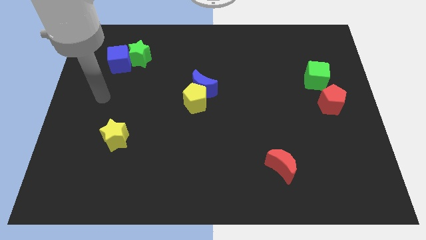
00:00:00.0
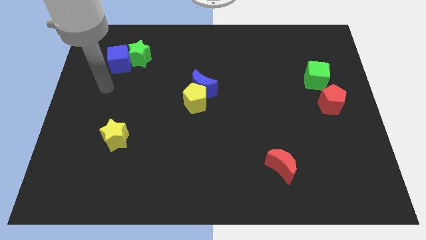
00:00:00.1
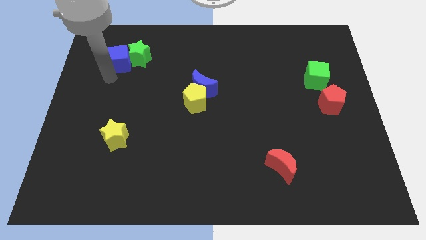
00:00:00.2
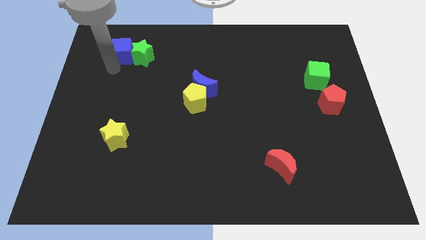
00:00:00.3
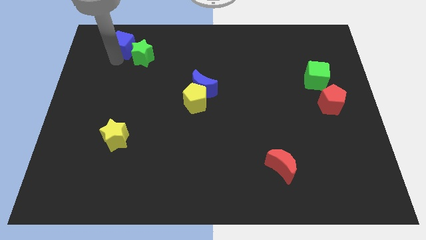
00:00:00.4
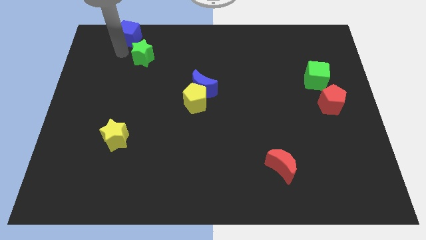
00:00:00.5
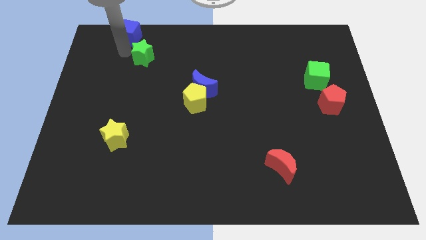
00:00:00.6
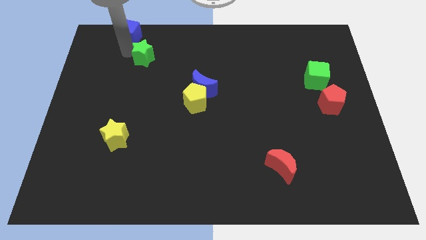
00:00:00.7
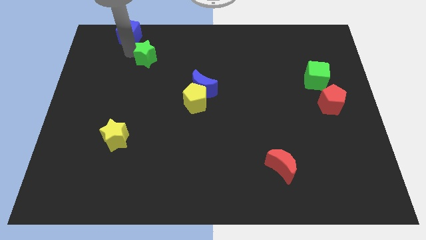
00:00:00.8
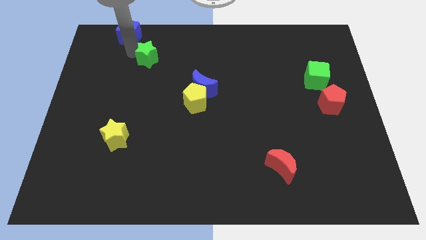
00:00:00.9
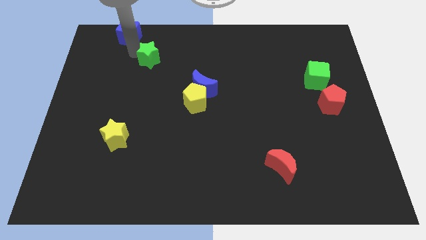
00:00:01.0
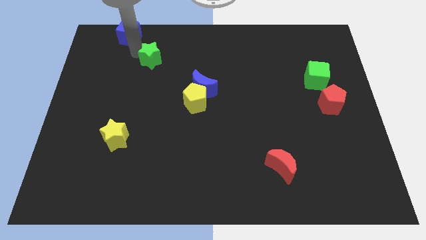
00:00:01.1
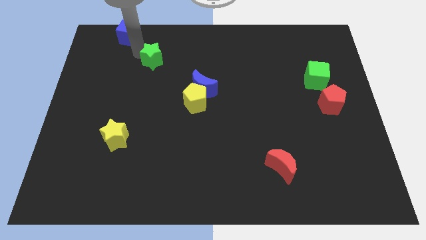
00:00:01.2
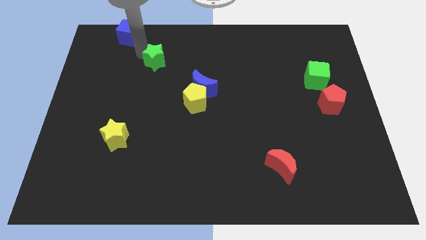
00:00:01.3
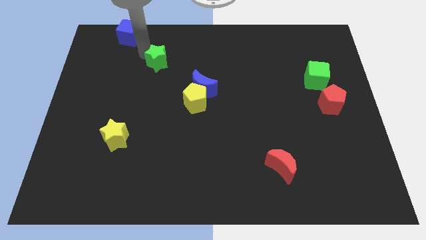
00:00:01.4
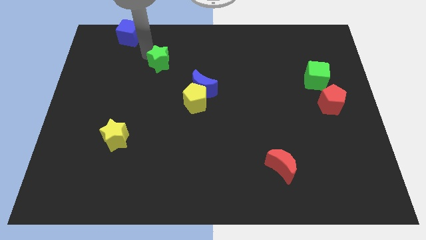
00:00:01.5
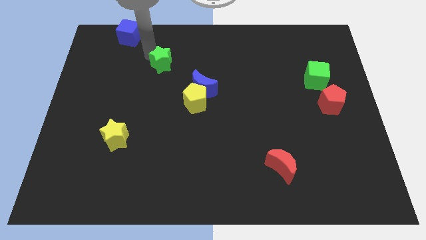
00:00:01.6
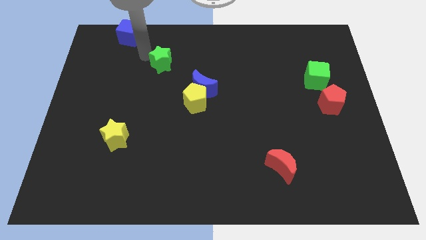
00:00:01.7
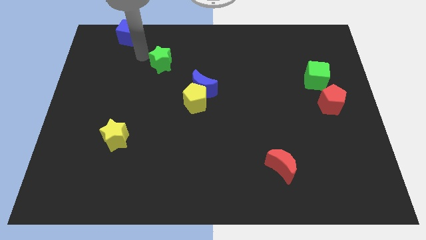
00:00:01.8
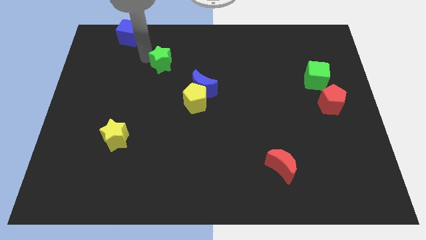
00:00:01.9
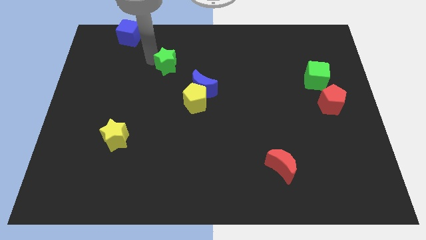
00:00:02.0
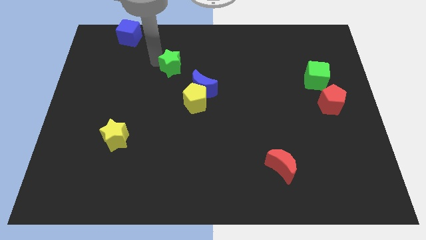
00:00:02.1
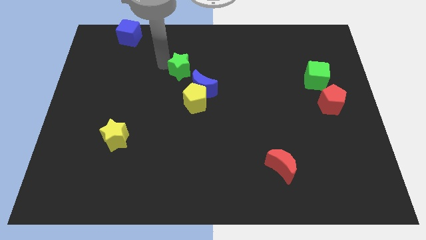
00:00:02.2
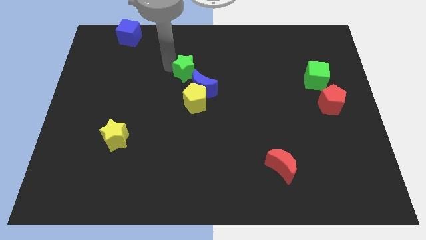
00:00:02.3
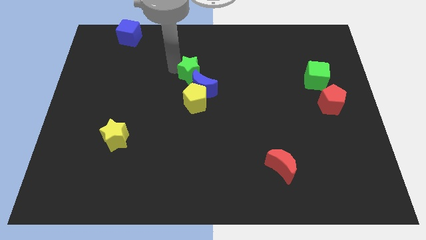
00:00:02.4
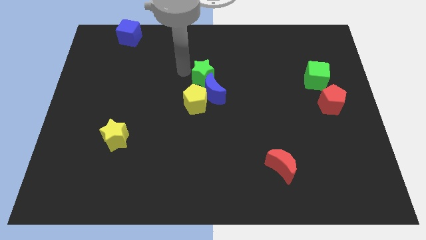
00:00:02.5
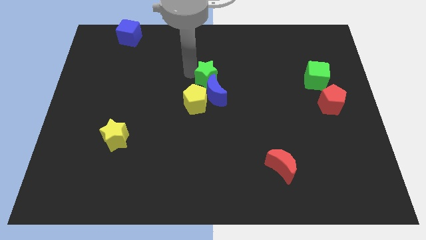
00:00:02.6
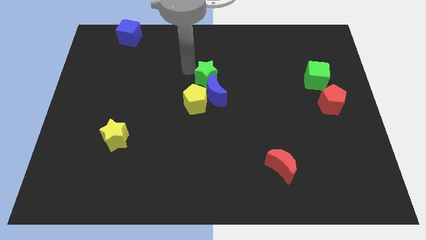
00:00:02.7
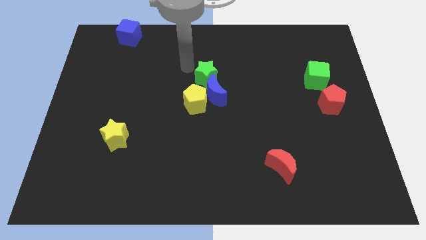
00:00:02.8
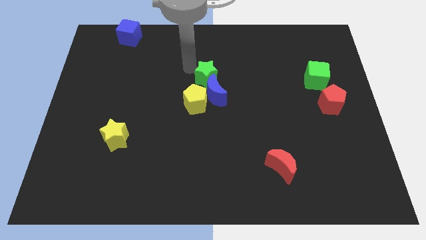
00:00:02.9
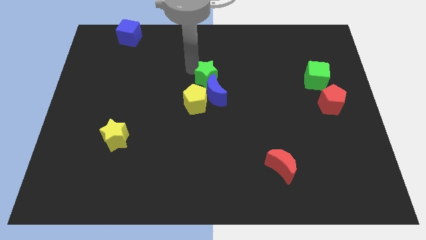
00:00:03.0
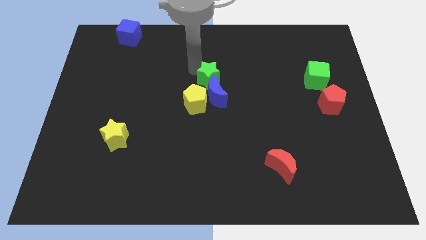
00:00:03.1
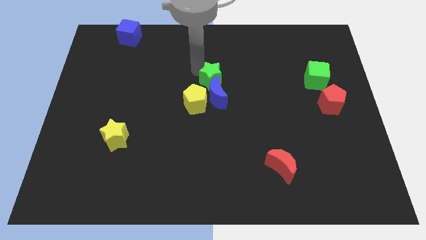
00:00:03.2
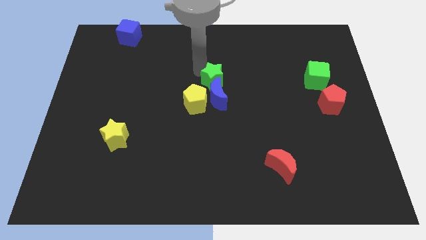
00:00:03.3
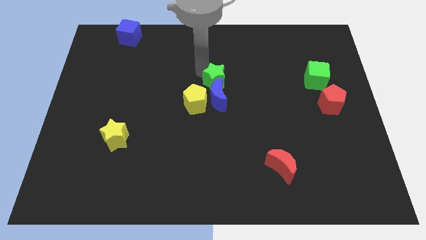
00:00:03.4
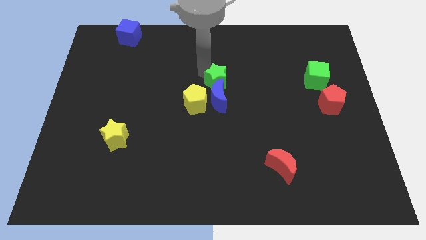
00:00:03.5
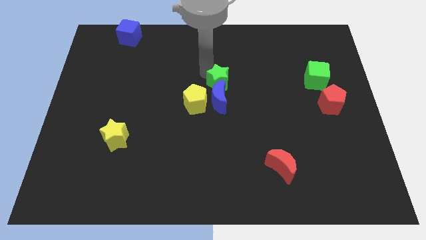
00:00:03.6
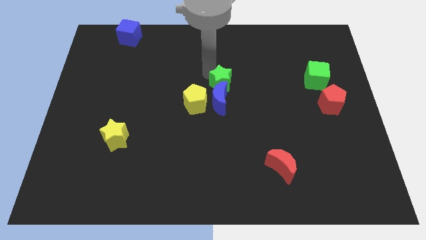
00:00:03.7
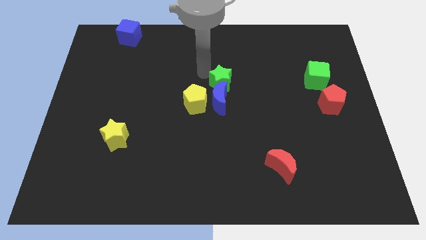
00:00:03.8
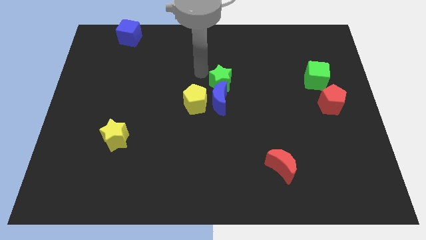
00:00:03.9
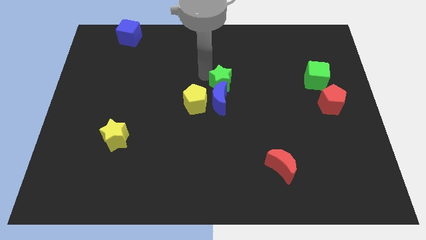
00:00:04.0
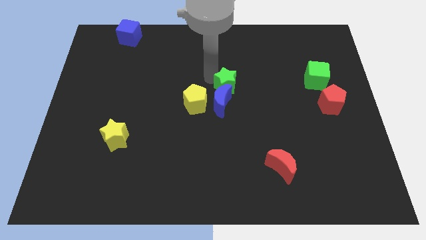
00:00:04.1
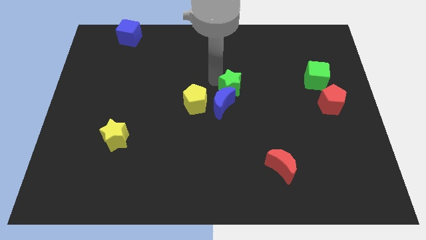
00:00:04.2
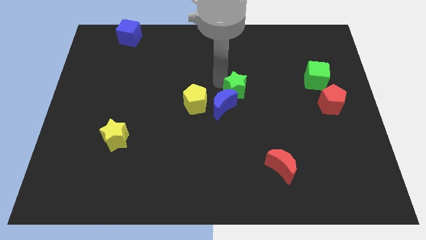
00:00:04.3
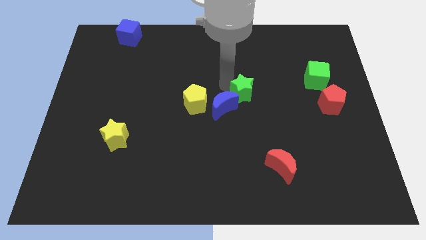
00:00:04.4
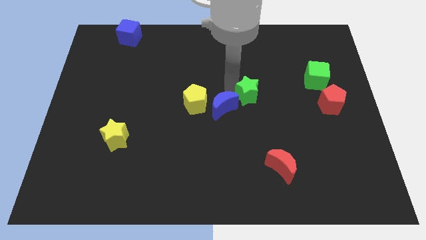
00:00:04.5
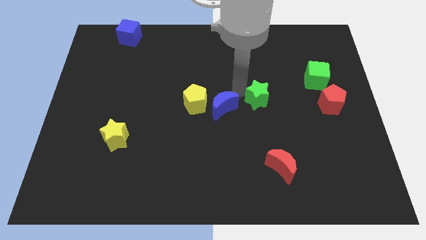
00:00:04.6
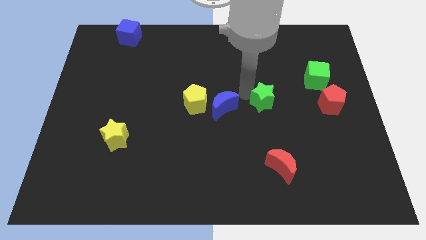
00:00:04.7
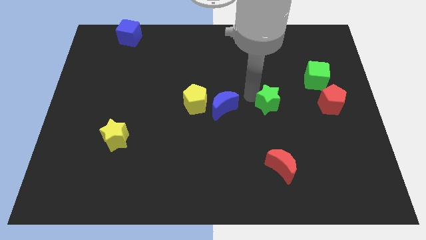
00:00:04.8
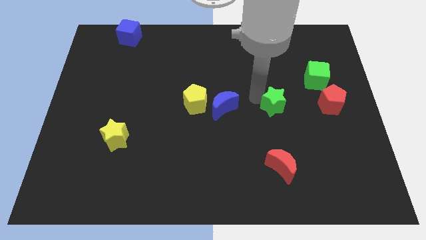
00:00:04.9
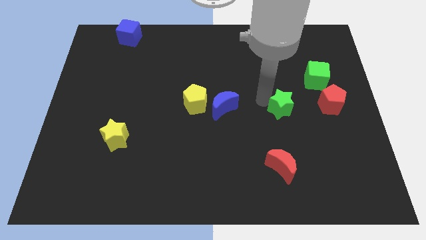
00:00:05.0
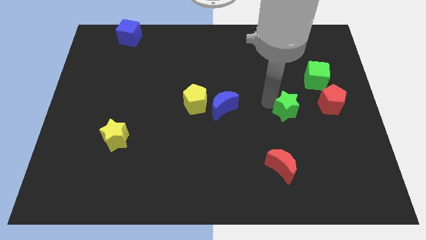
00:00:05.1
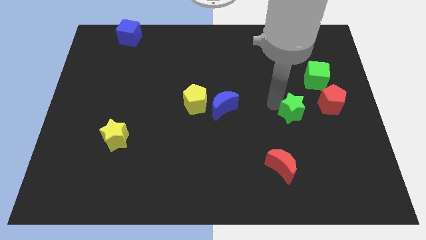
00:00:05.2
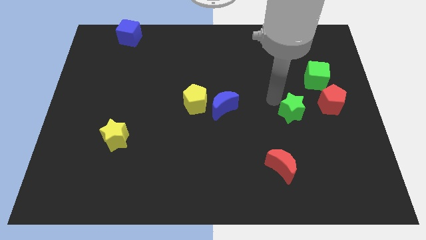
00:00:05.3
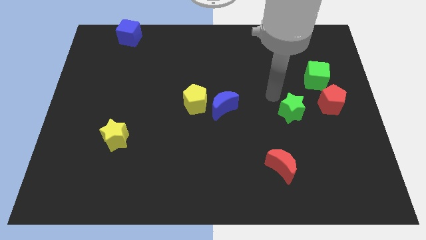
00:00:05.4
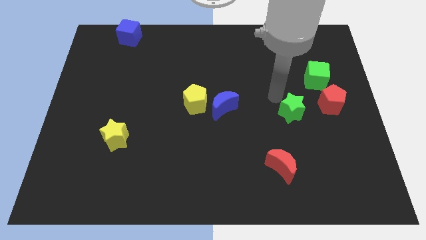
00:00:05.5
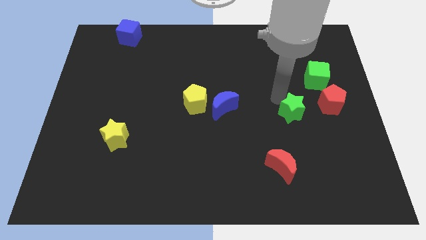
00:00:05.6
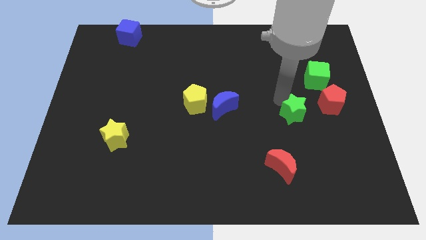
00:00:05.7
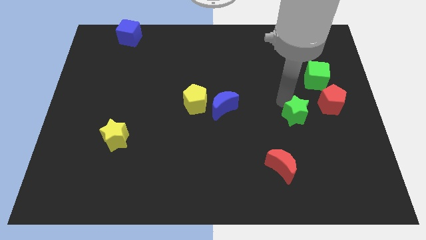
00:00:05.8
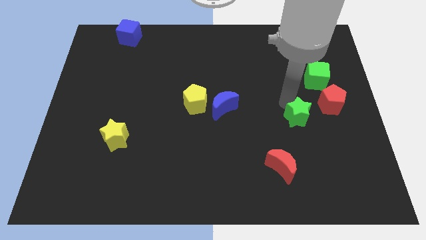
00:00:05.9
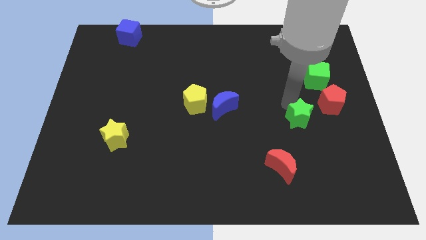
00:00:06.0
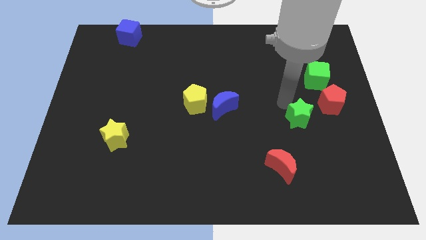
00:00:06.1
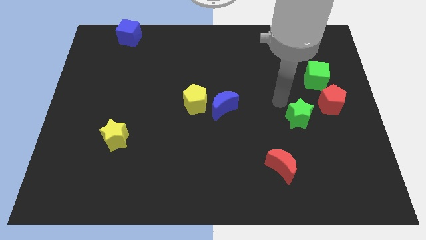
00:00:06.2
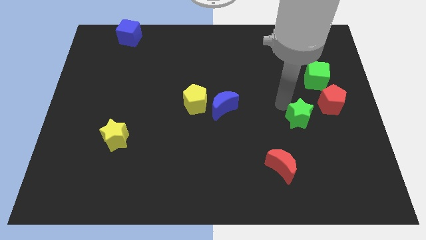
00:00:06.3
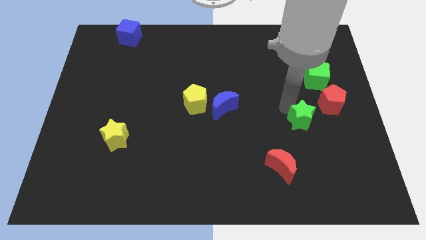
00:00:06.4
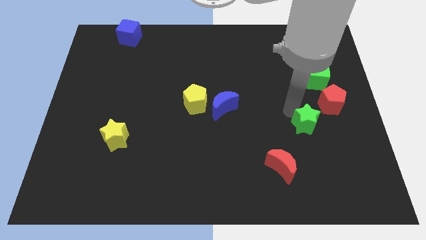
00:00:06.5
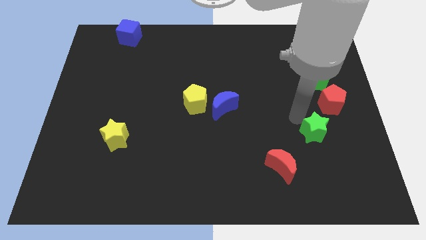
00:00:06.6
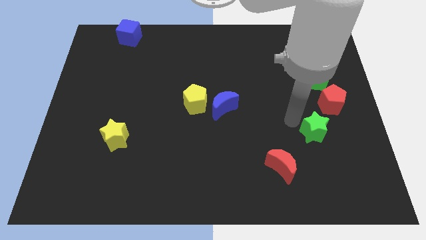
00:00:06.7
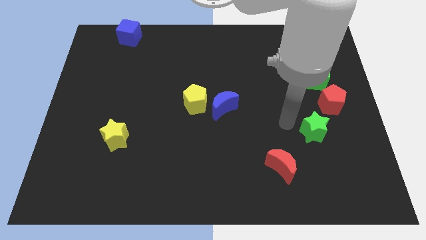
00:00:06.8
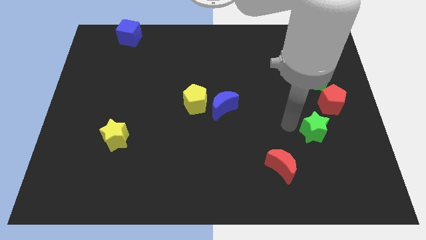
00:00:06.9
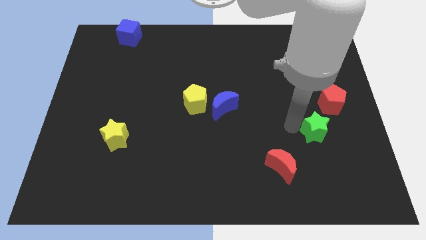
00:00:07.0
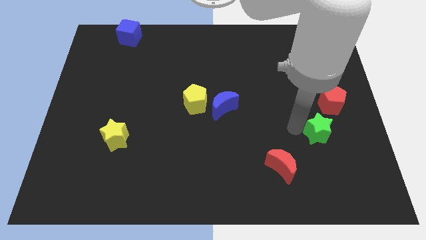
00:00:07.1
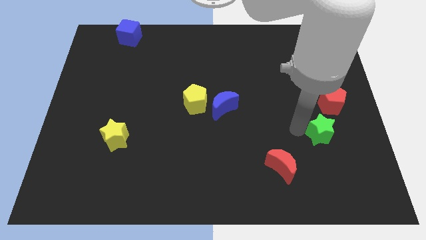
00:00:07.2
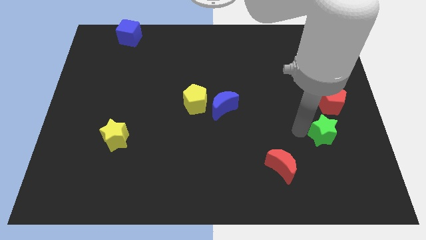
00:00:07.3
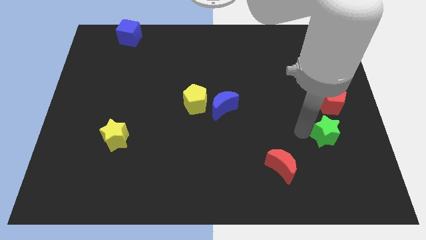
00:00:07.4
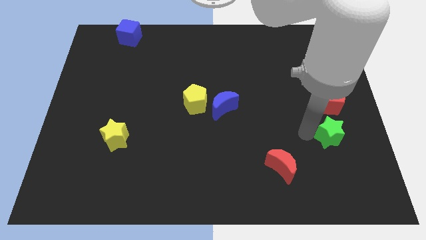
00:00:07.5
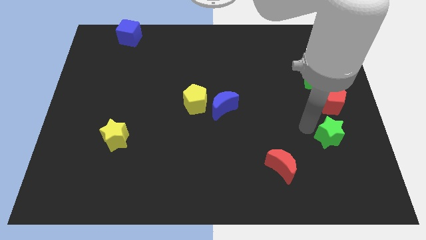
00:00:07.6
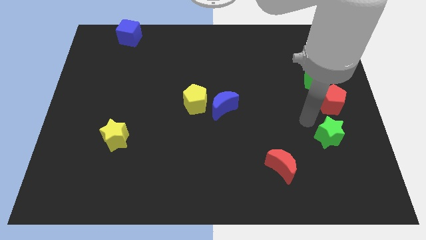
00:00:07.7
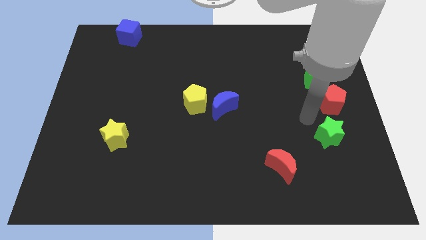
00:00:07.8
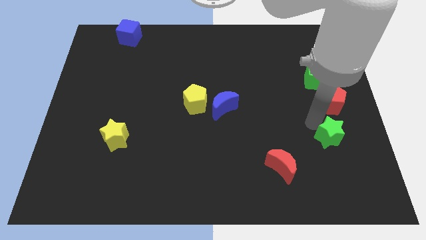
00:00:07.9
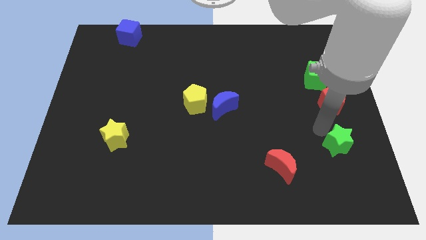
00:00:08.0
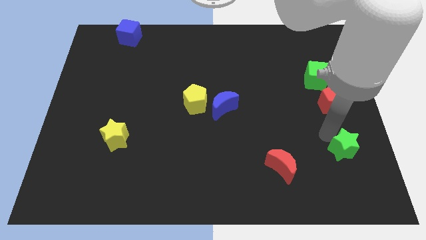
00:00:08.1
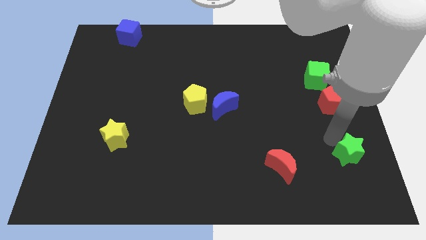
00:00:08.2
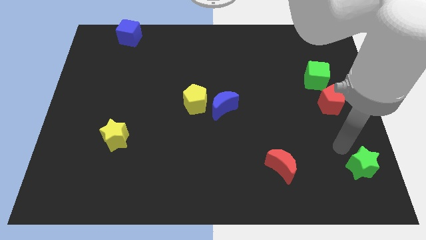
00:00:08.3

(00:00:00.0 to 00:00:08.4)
slide the green star to the lower right corner
